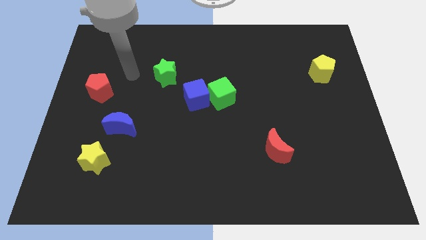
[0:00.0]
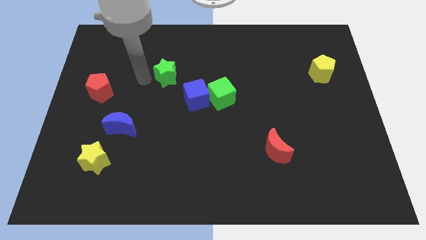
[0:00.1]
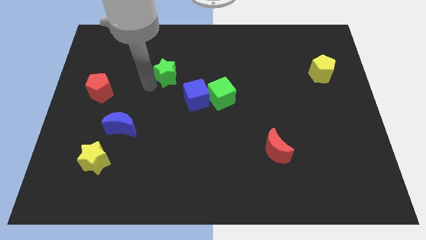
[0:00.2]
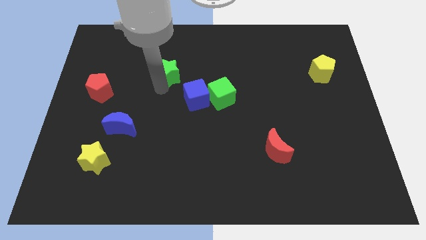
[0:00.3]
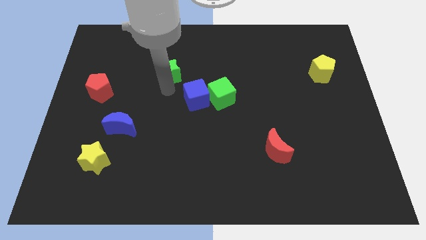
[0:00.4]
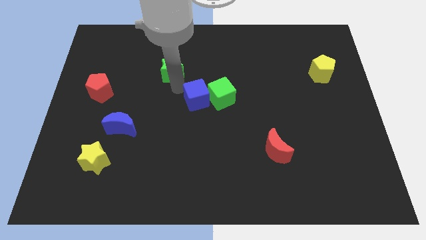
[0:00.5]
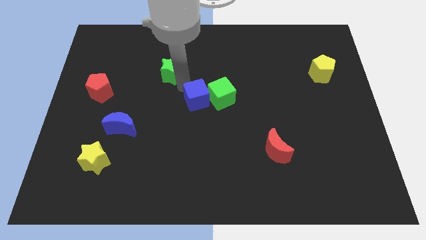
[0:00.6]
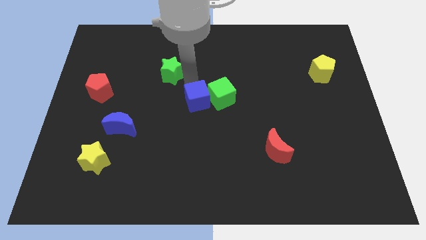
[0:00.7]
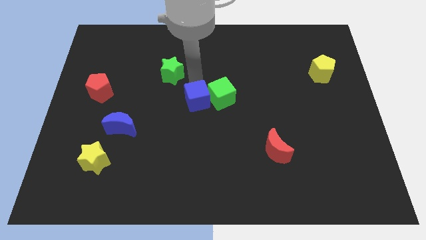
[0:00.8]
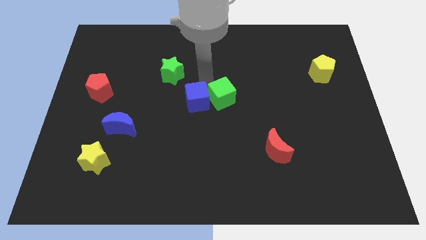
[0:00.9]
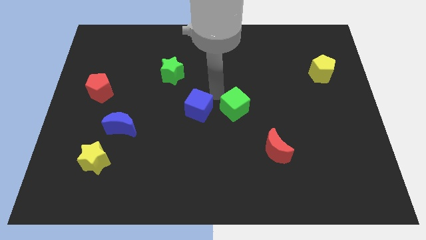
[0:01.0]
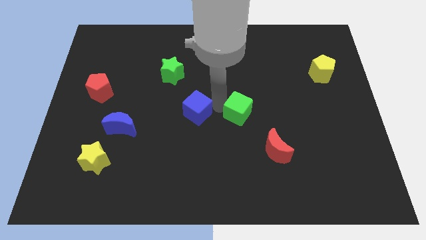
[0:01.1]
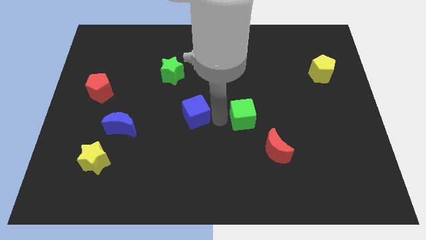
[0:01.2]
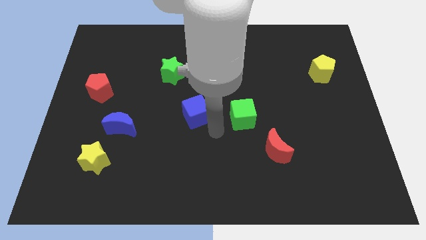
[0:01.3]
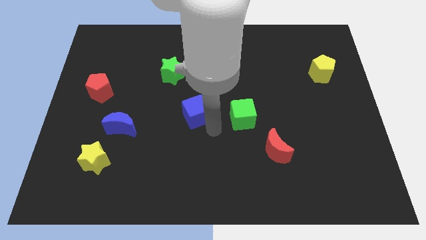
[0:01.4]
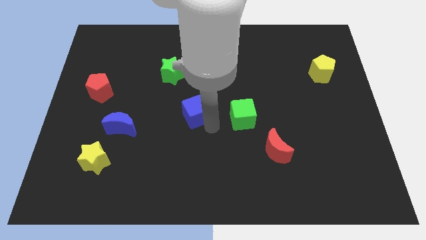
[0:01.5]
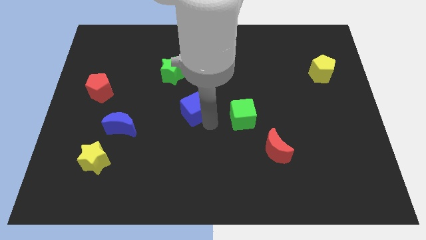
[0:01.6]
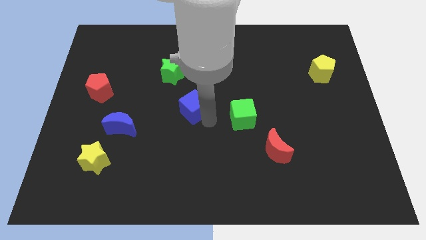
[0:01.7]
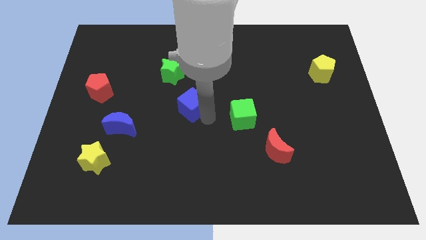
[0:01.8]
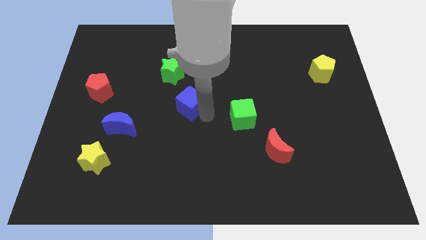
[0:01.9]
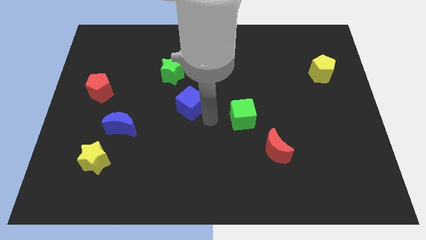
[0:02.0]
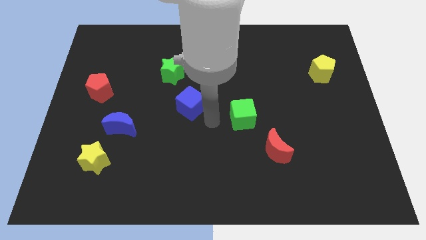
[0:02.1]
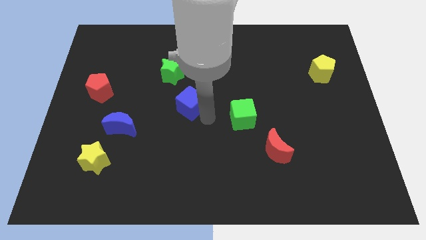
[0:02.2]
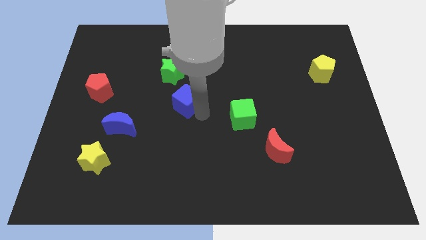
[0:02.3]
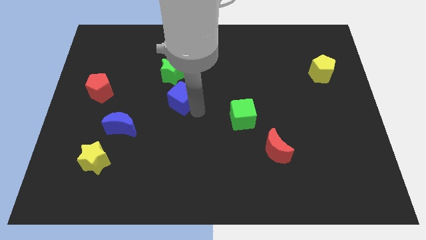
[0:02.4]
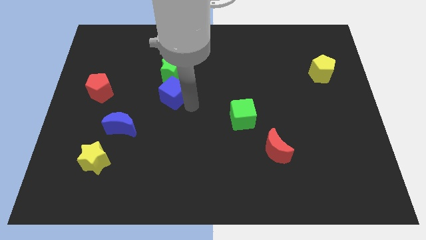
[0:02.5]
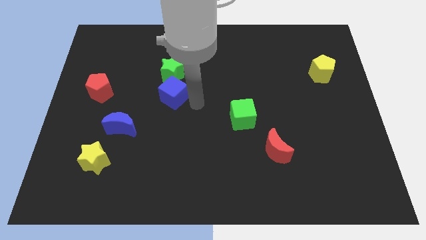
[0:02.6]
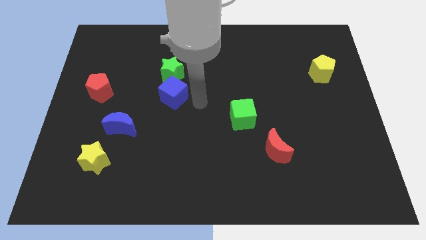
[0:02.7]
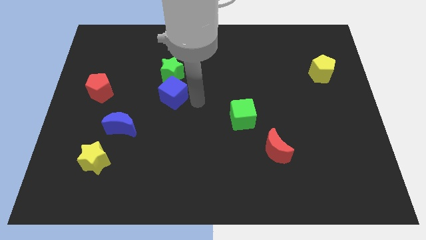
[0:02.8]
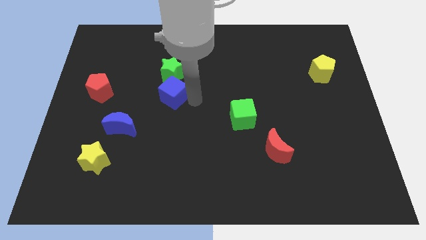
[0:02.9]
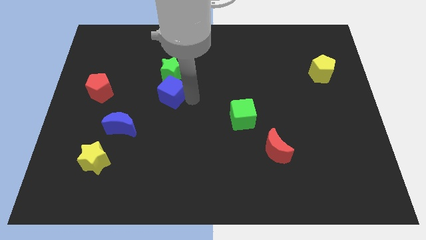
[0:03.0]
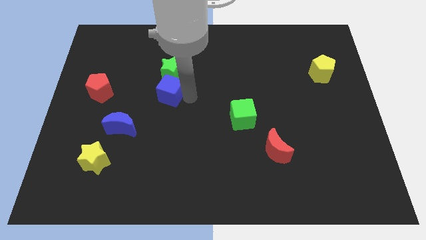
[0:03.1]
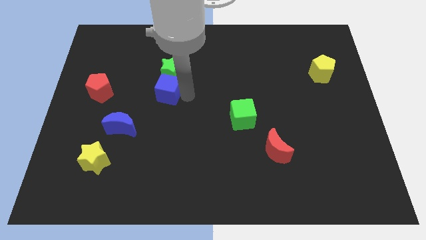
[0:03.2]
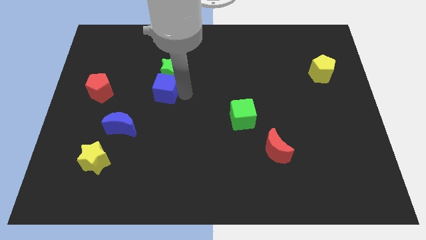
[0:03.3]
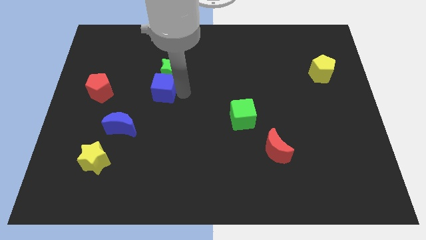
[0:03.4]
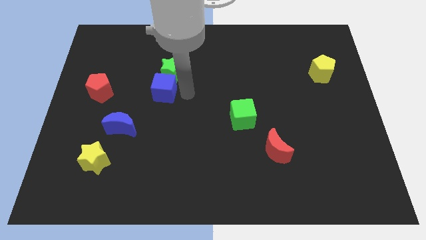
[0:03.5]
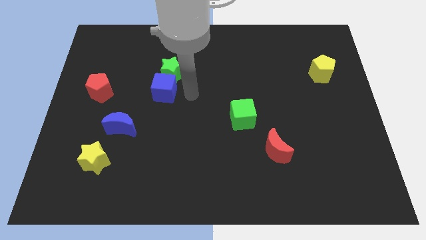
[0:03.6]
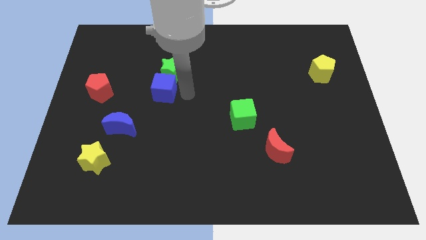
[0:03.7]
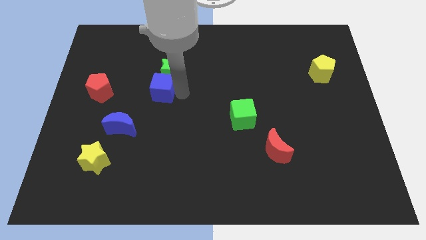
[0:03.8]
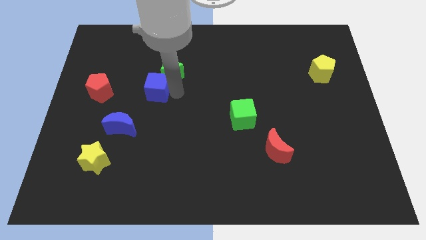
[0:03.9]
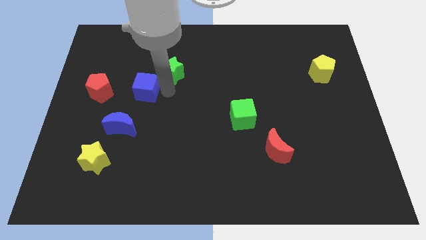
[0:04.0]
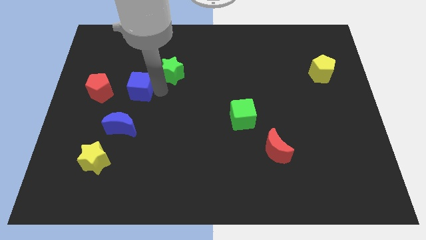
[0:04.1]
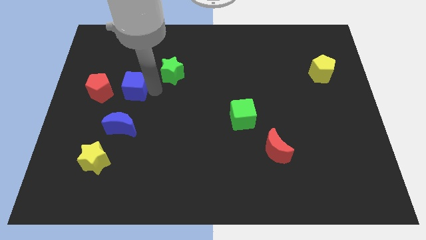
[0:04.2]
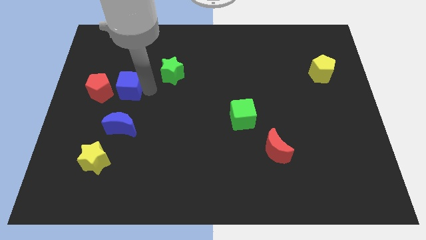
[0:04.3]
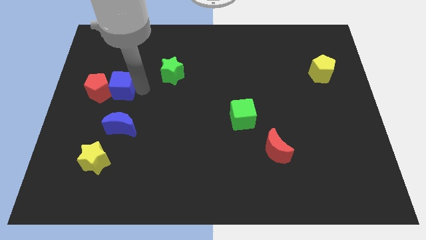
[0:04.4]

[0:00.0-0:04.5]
push the blue cube close to the red pentagon

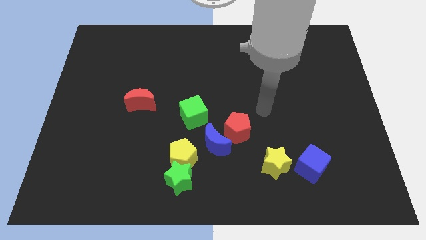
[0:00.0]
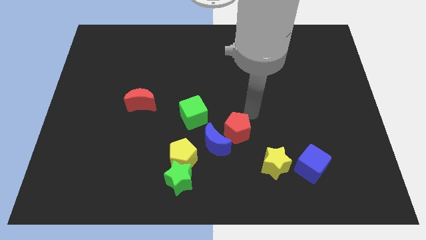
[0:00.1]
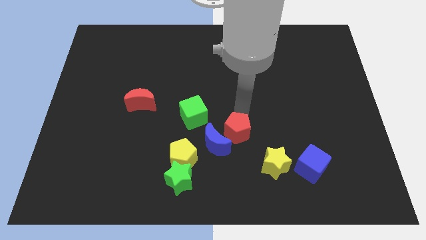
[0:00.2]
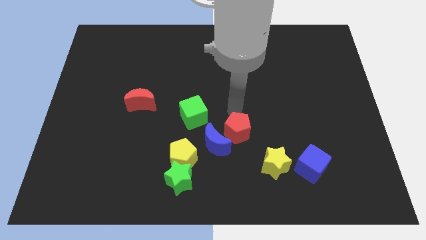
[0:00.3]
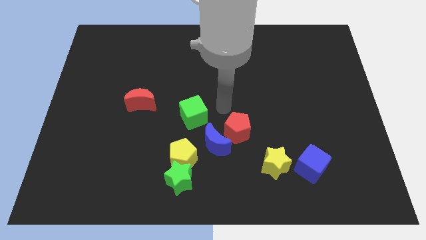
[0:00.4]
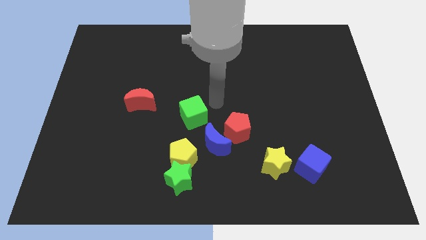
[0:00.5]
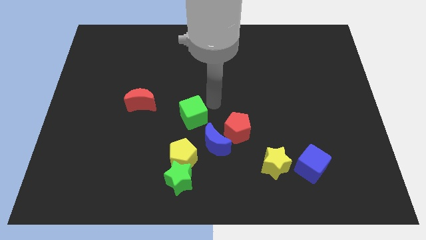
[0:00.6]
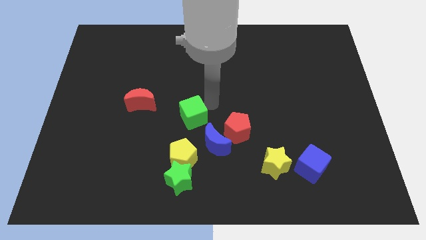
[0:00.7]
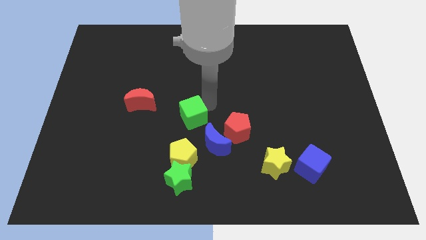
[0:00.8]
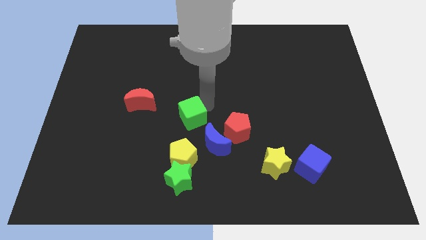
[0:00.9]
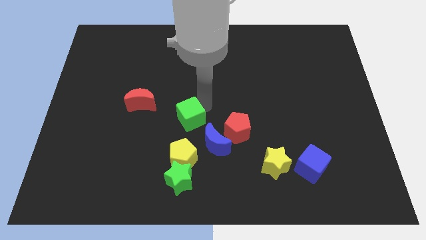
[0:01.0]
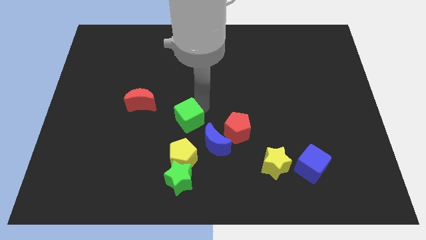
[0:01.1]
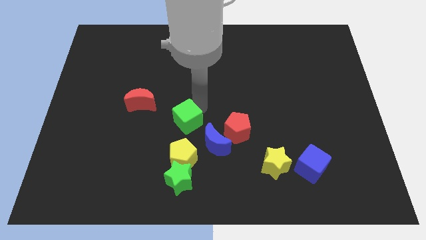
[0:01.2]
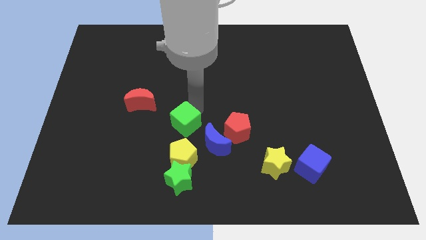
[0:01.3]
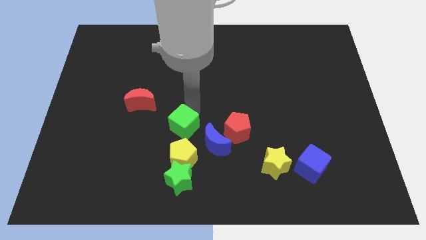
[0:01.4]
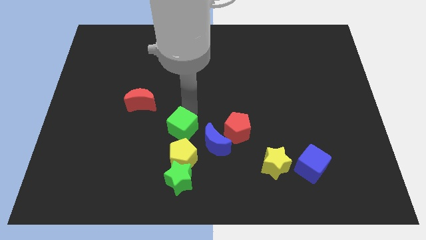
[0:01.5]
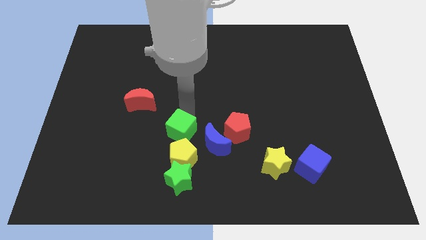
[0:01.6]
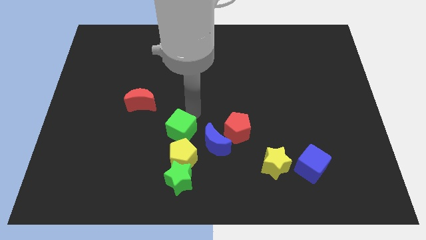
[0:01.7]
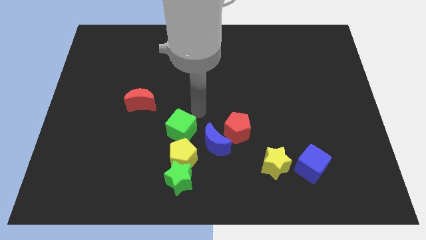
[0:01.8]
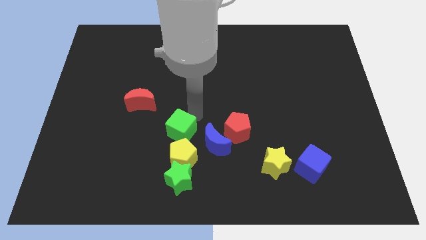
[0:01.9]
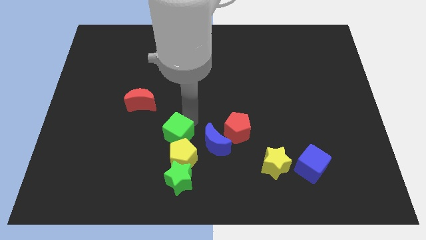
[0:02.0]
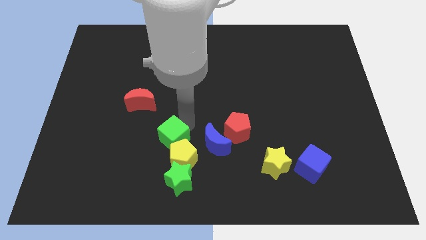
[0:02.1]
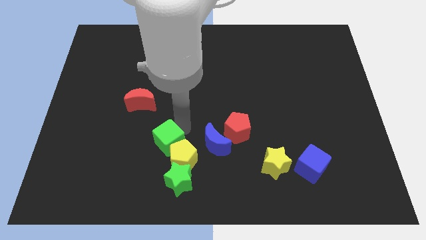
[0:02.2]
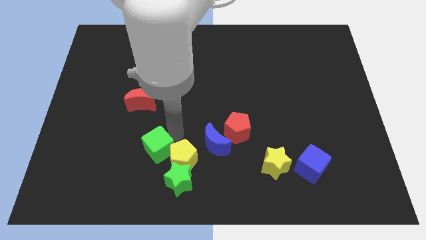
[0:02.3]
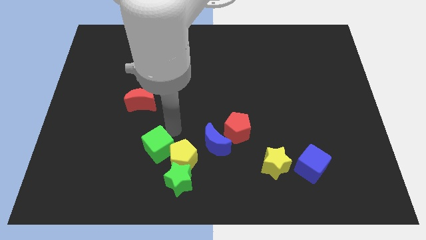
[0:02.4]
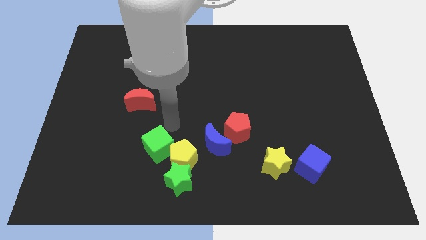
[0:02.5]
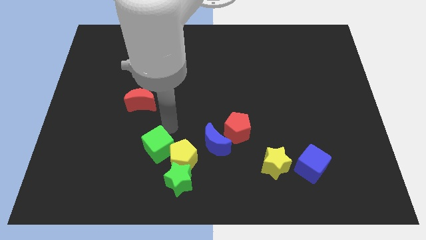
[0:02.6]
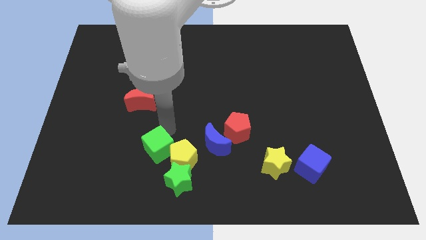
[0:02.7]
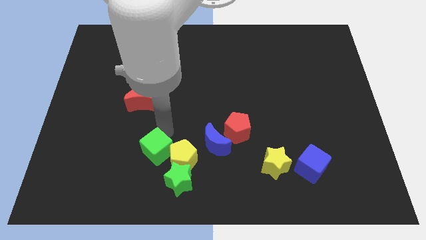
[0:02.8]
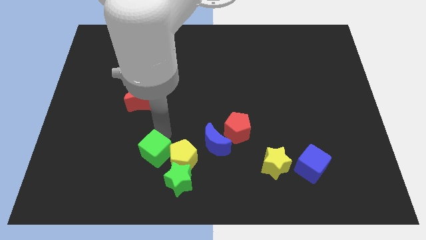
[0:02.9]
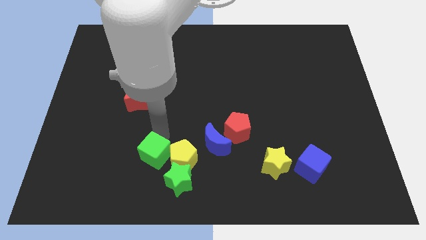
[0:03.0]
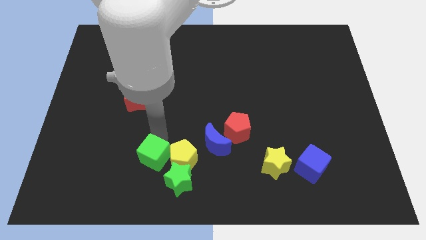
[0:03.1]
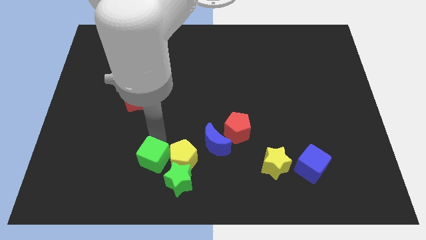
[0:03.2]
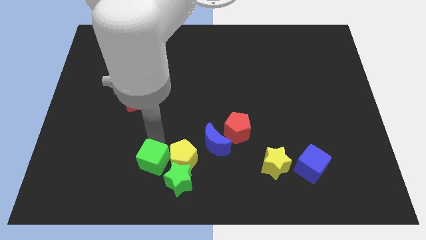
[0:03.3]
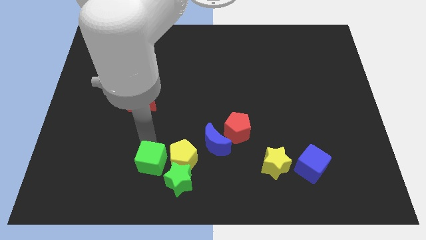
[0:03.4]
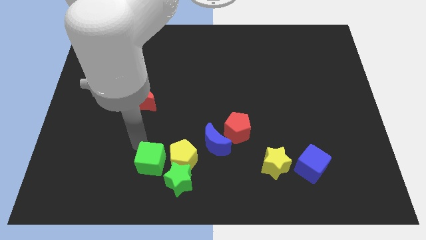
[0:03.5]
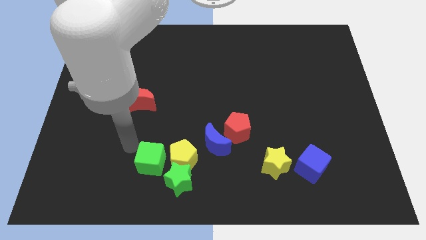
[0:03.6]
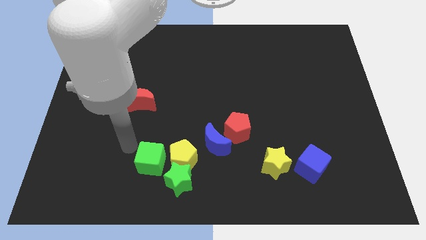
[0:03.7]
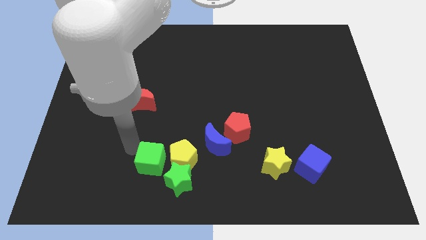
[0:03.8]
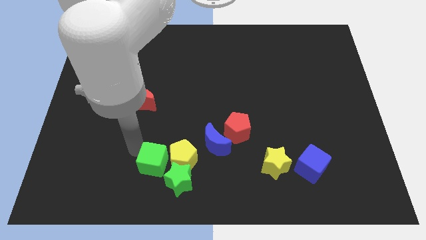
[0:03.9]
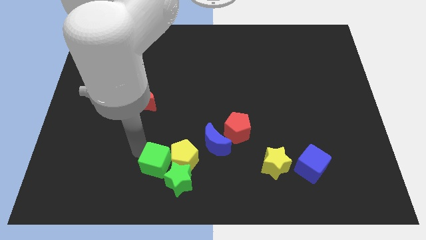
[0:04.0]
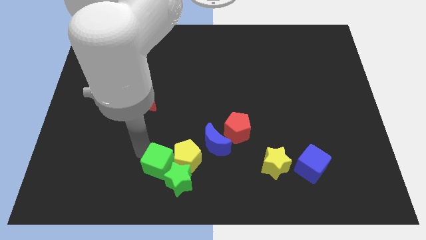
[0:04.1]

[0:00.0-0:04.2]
slide the green cube towards the green star
